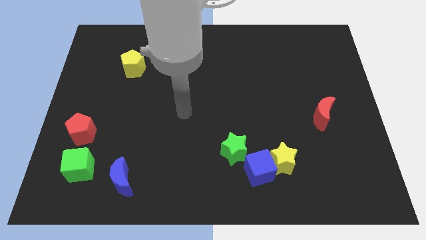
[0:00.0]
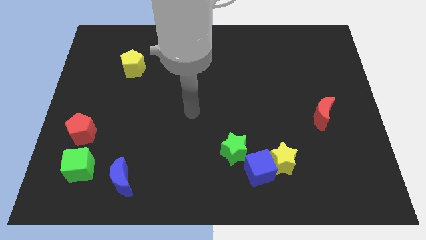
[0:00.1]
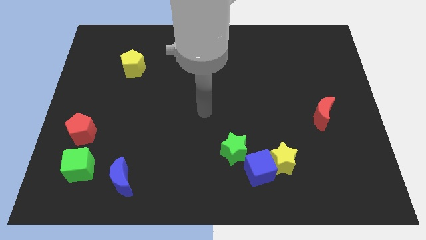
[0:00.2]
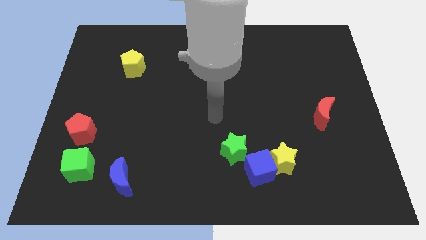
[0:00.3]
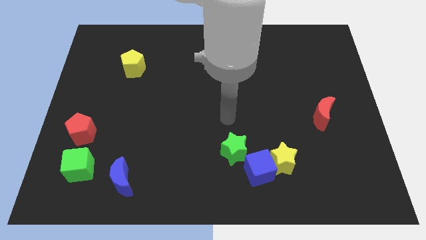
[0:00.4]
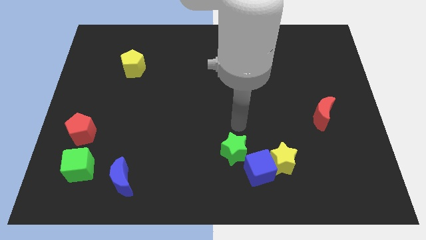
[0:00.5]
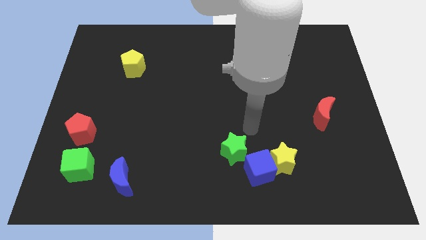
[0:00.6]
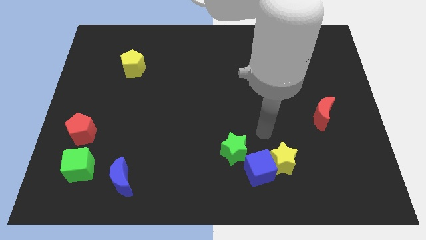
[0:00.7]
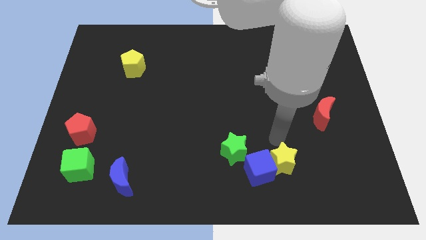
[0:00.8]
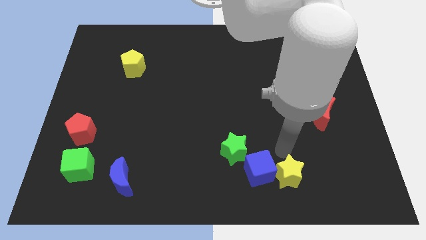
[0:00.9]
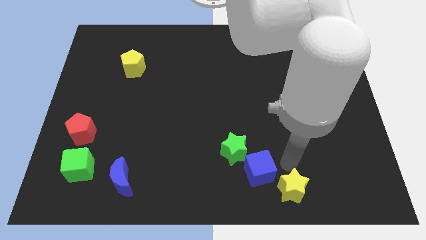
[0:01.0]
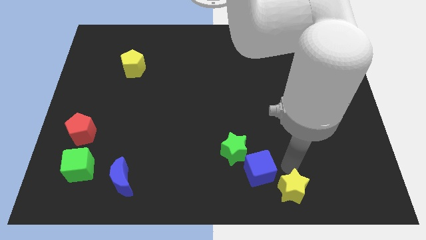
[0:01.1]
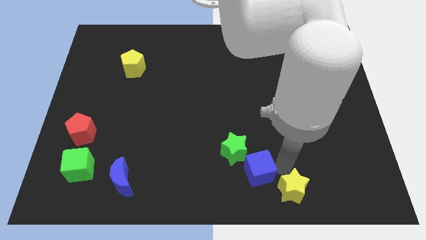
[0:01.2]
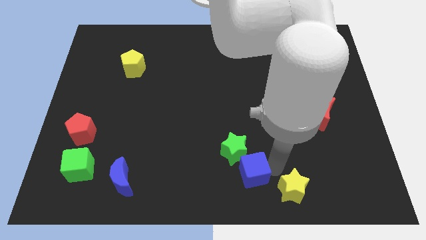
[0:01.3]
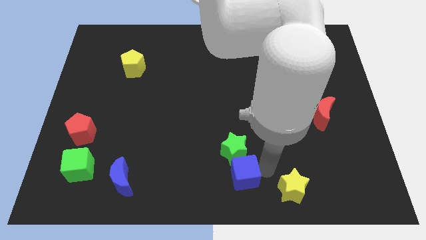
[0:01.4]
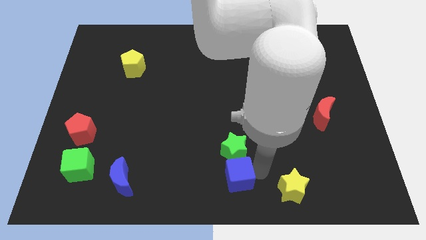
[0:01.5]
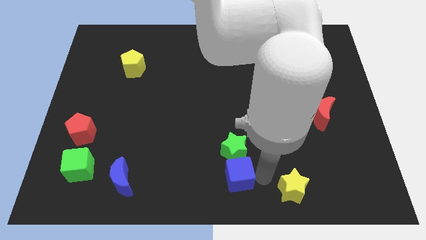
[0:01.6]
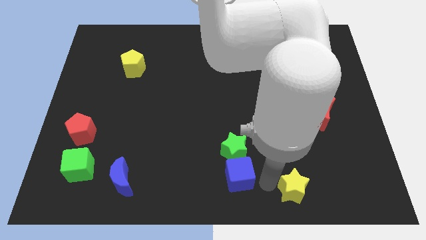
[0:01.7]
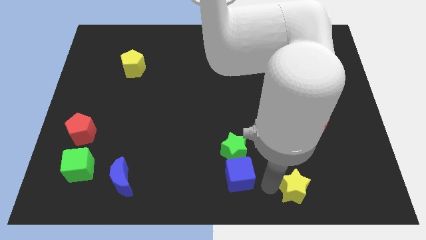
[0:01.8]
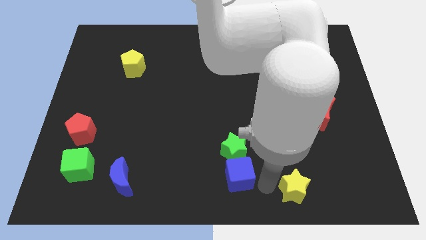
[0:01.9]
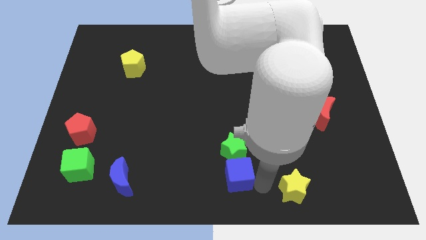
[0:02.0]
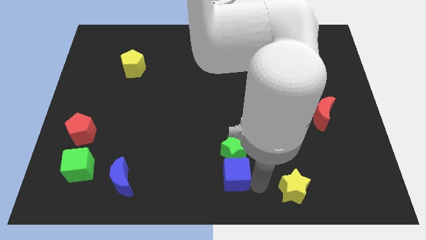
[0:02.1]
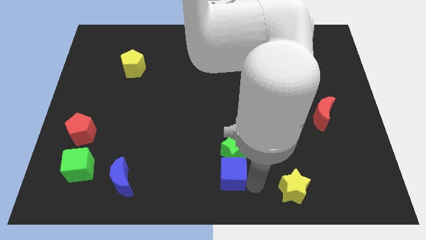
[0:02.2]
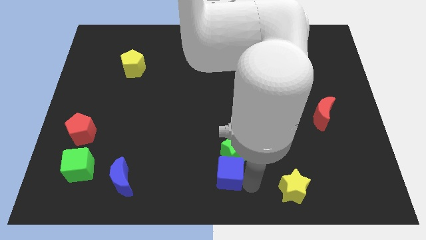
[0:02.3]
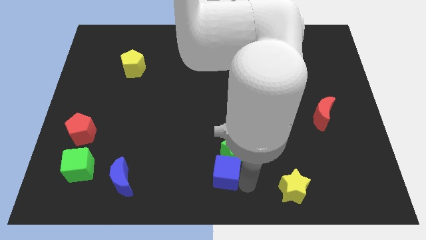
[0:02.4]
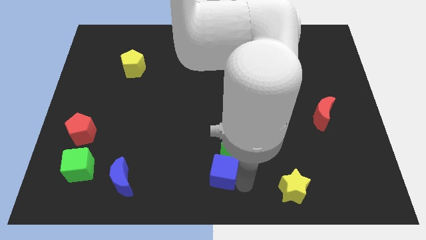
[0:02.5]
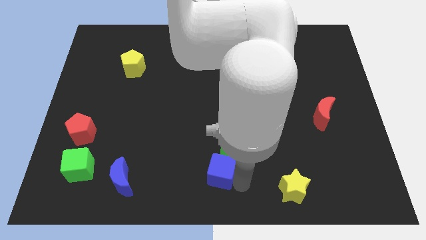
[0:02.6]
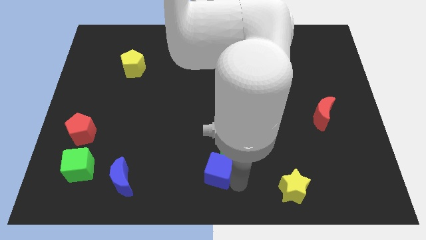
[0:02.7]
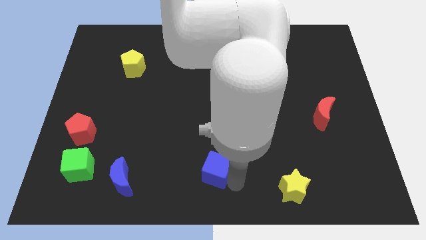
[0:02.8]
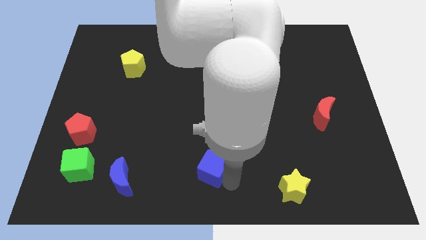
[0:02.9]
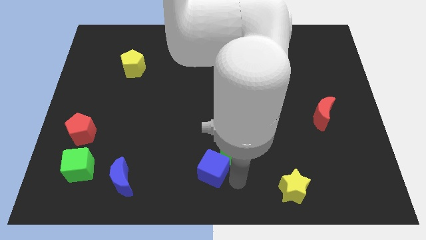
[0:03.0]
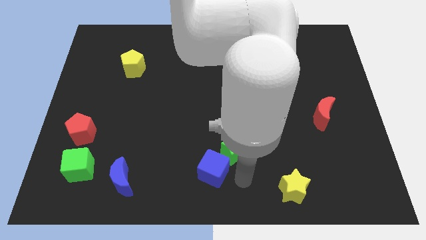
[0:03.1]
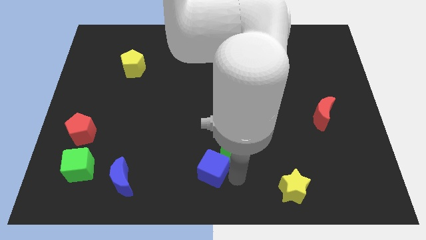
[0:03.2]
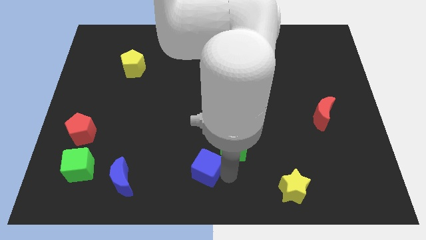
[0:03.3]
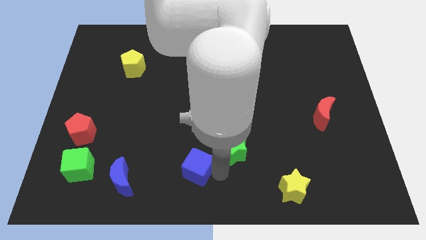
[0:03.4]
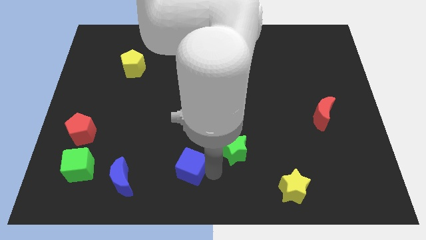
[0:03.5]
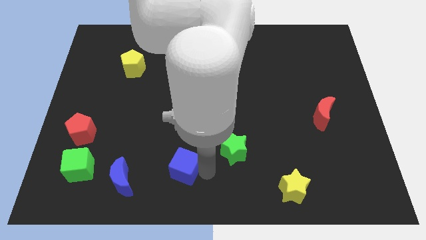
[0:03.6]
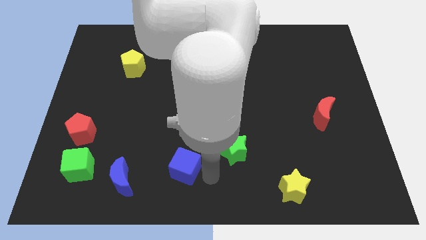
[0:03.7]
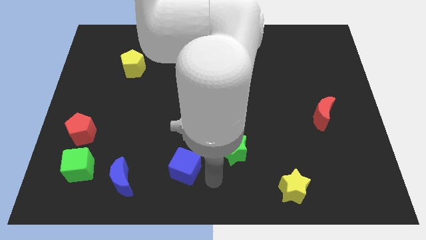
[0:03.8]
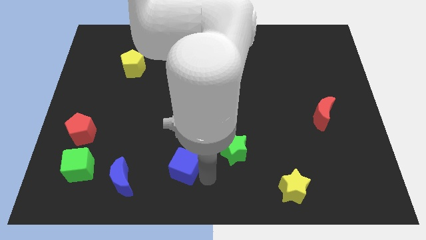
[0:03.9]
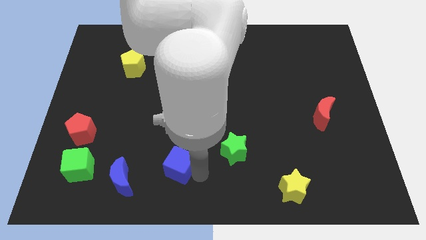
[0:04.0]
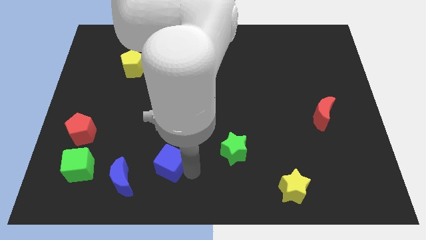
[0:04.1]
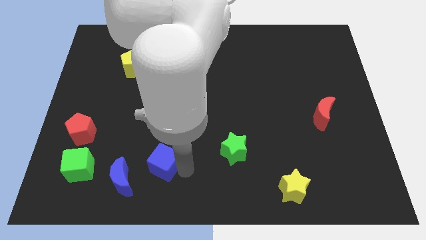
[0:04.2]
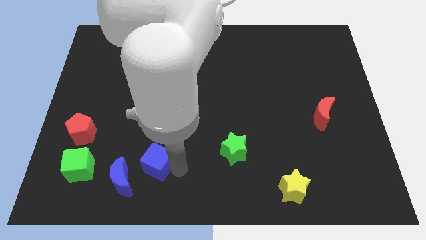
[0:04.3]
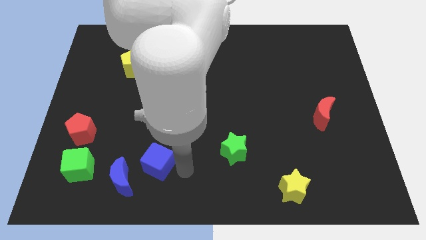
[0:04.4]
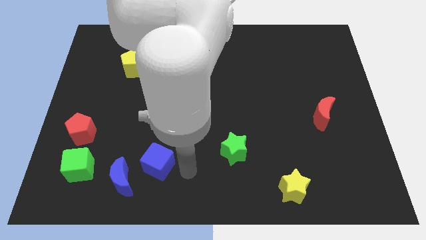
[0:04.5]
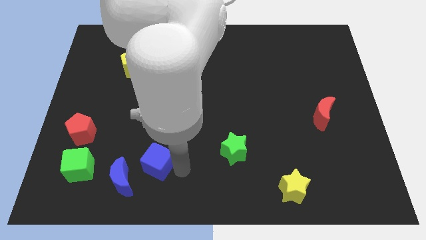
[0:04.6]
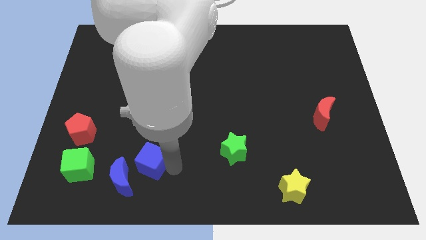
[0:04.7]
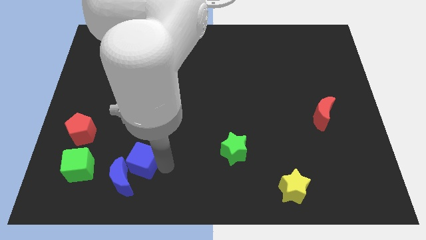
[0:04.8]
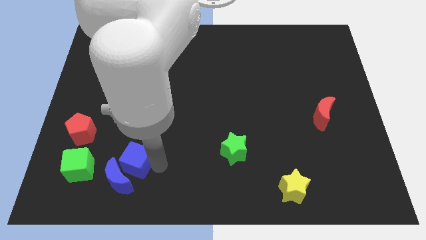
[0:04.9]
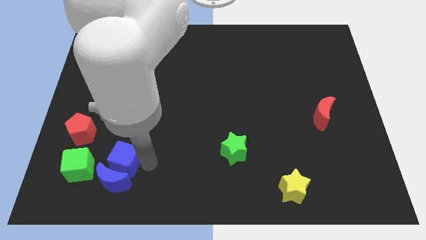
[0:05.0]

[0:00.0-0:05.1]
move the blue cube to the top left side of the blue moon

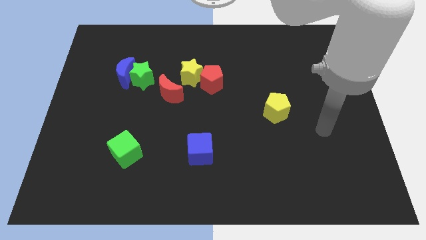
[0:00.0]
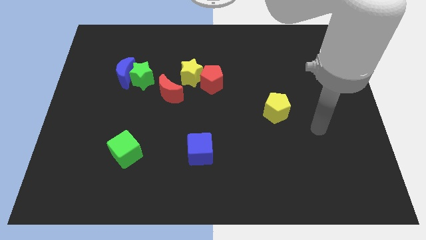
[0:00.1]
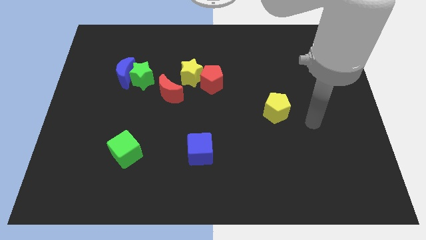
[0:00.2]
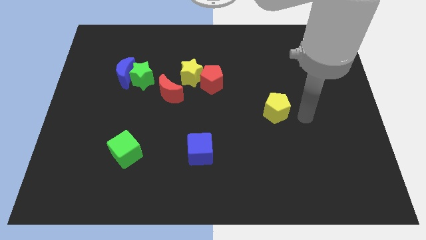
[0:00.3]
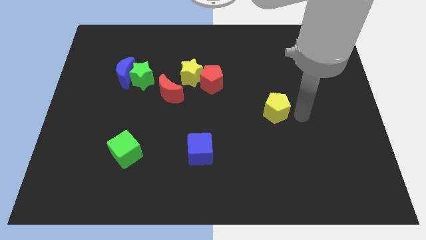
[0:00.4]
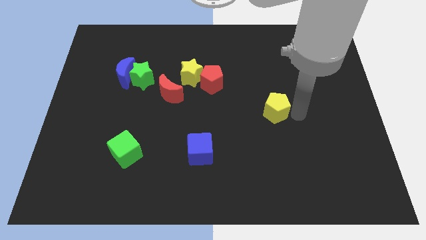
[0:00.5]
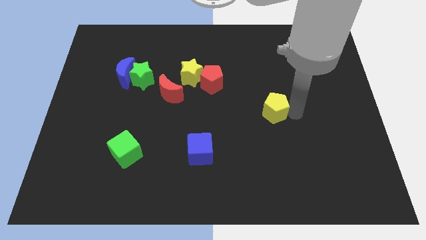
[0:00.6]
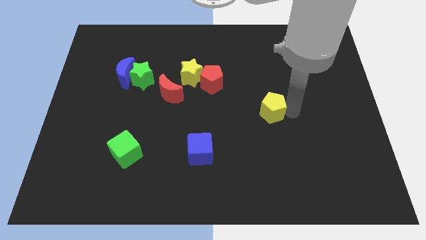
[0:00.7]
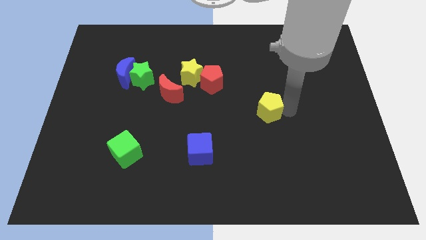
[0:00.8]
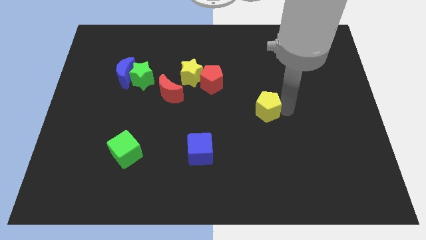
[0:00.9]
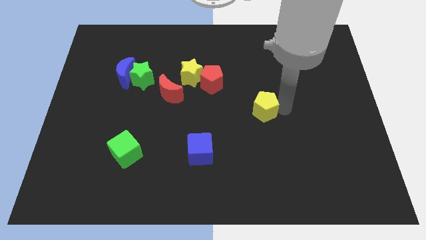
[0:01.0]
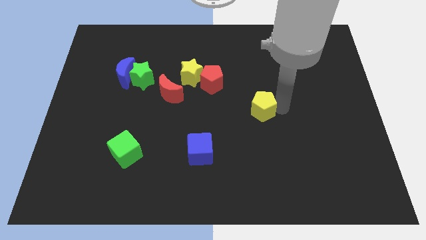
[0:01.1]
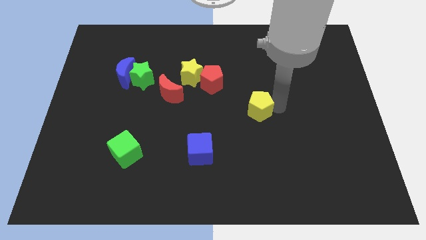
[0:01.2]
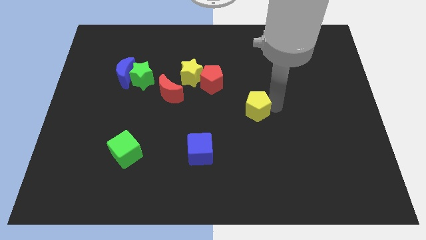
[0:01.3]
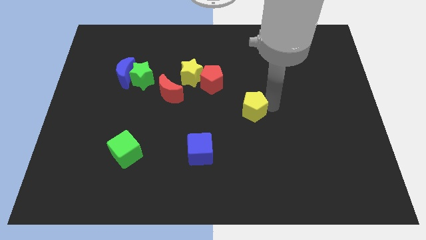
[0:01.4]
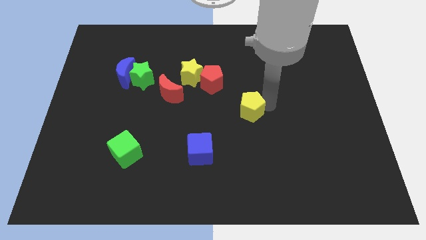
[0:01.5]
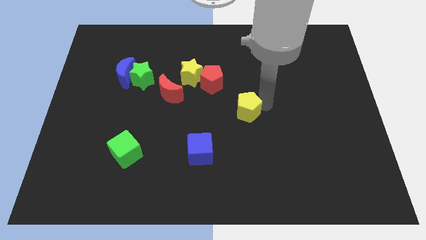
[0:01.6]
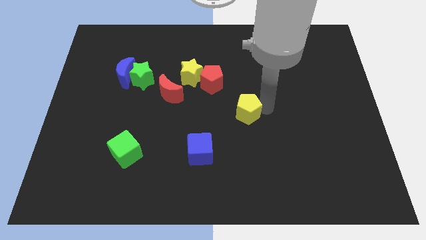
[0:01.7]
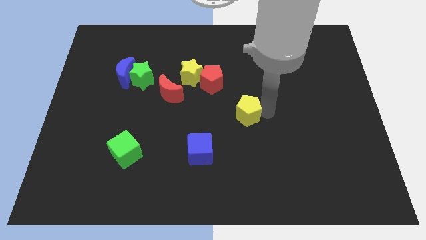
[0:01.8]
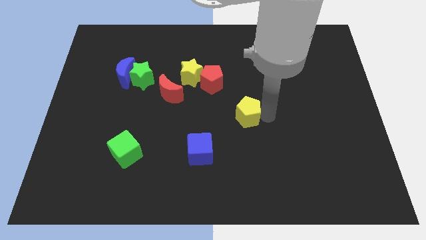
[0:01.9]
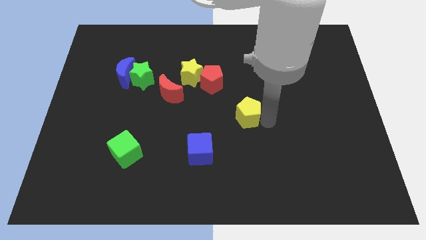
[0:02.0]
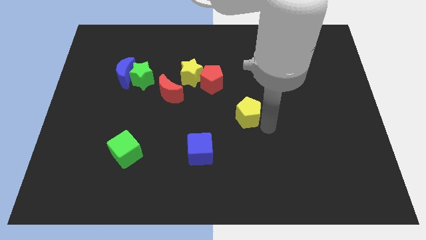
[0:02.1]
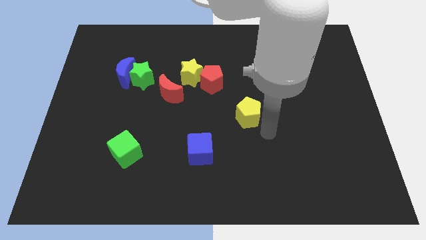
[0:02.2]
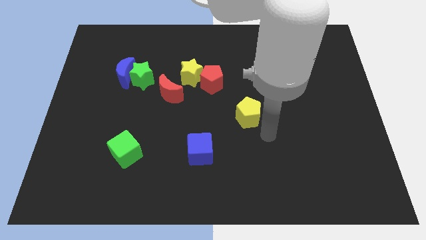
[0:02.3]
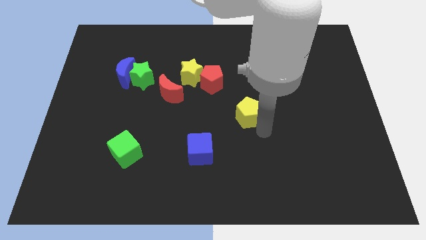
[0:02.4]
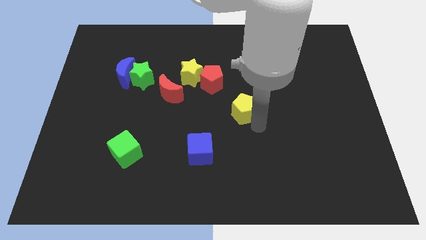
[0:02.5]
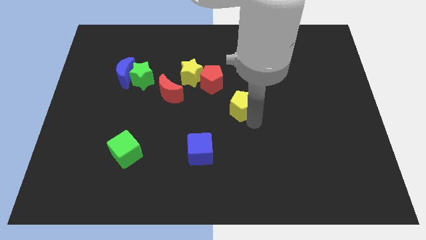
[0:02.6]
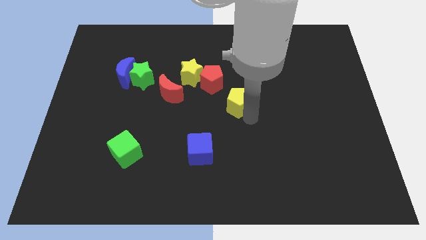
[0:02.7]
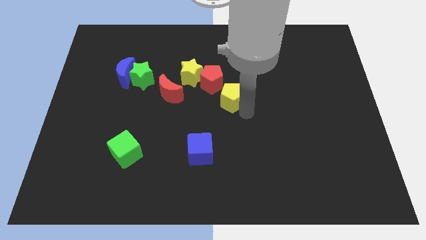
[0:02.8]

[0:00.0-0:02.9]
put the yellow pentagon diagonally down and to the right of the yellow star
